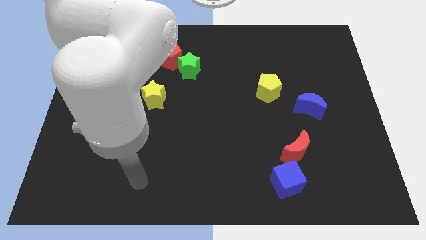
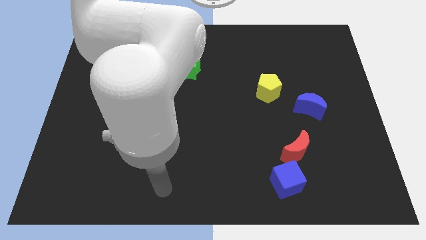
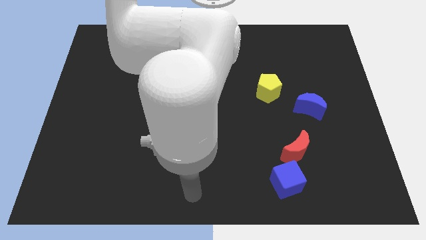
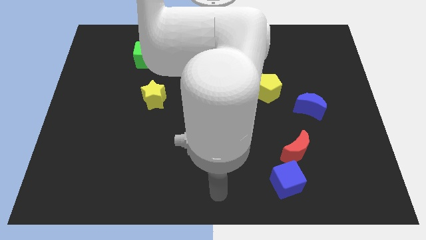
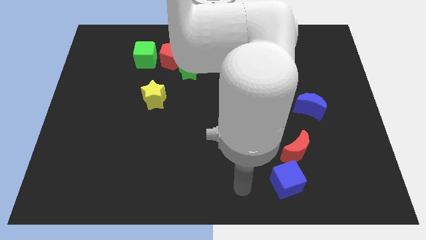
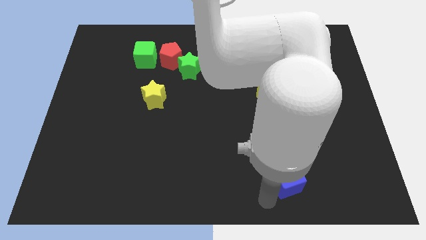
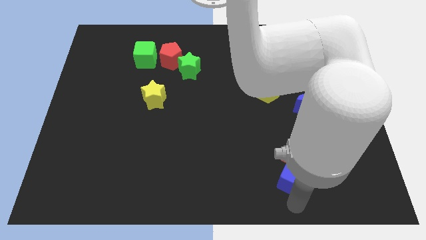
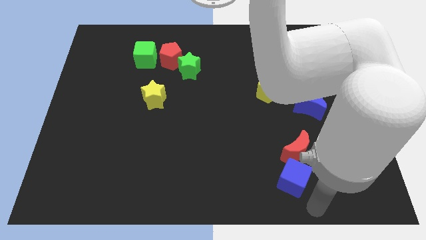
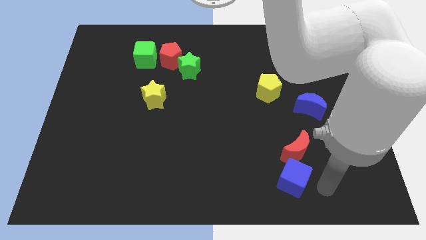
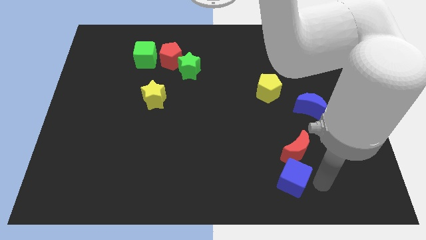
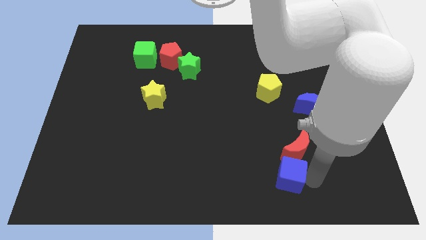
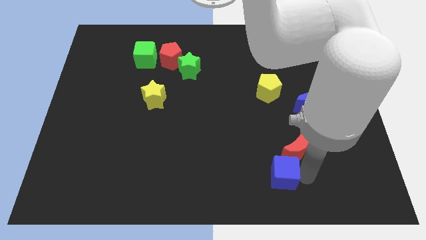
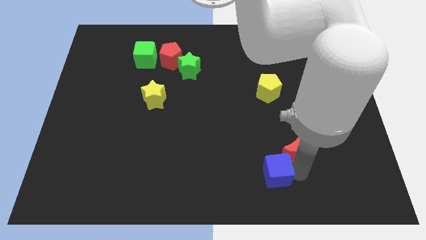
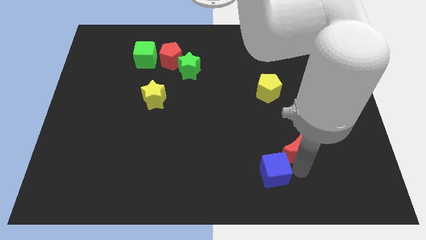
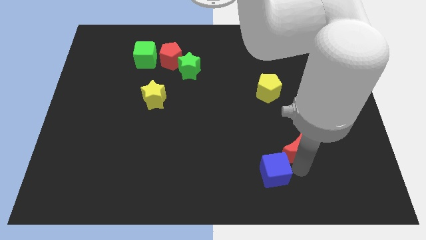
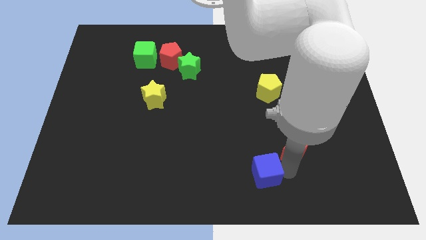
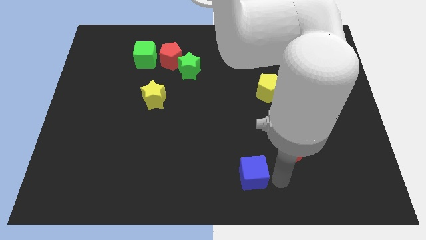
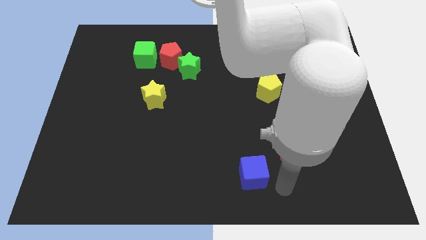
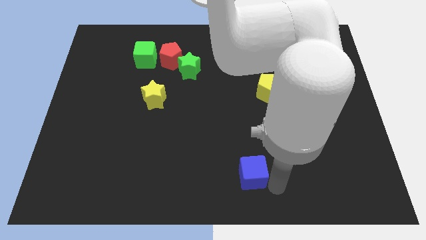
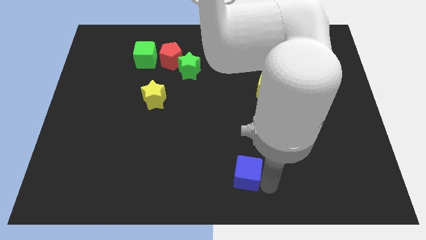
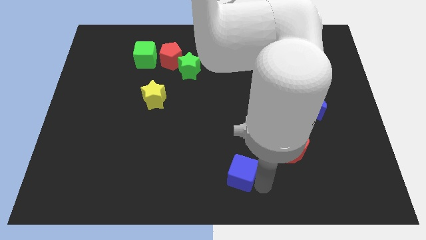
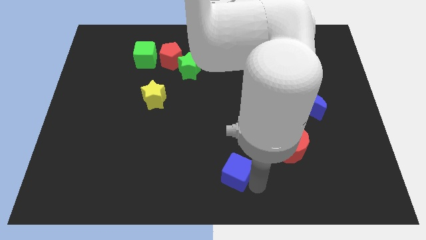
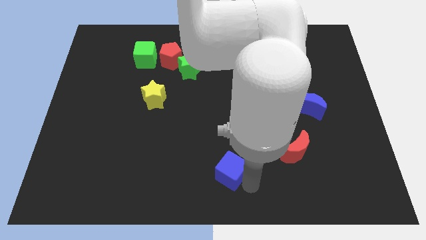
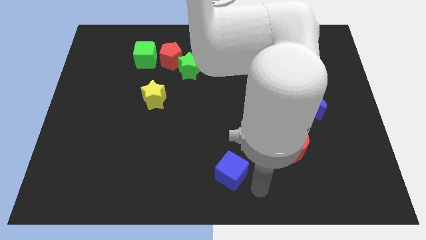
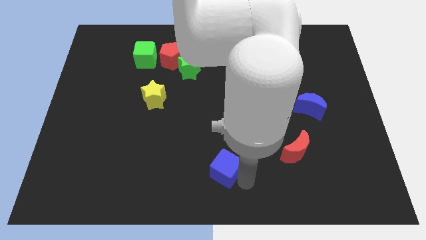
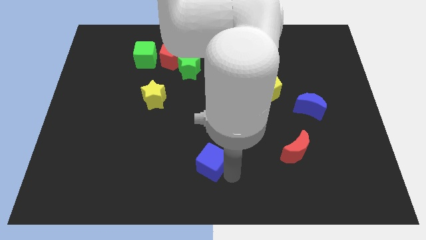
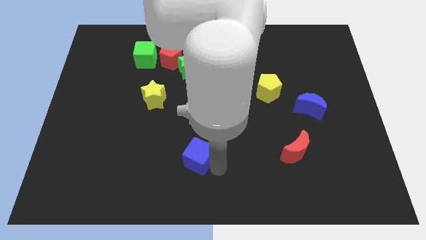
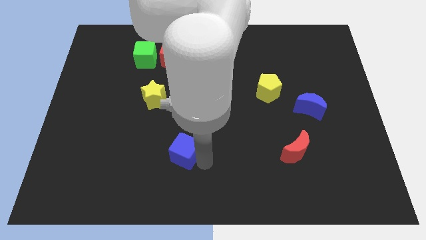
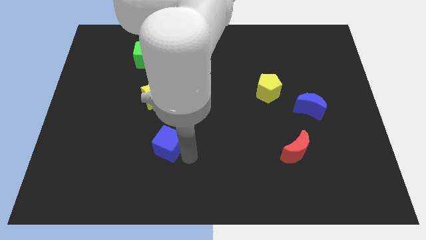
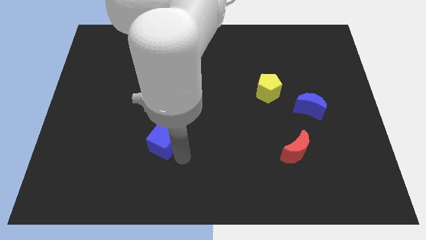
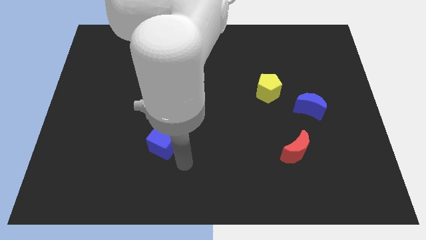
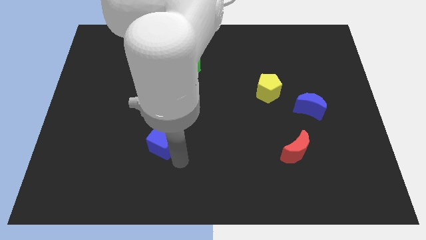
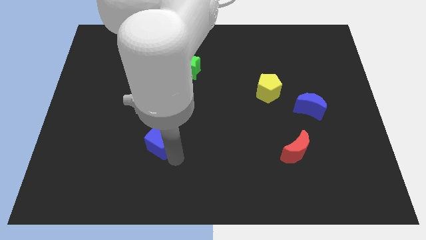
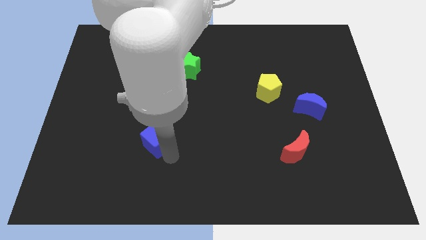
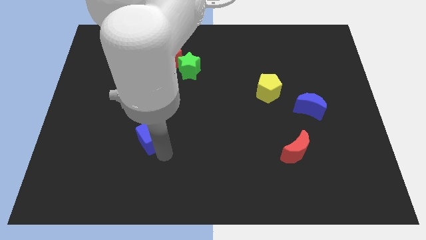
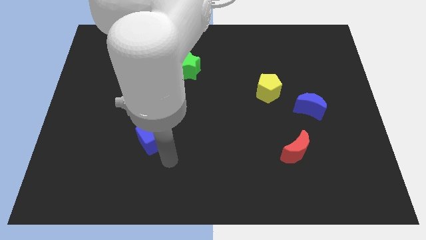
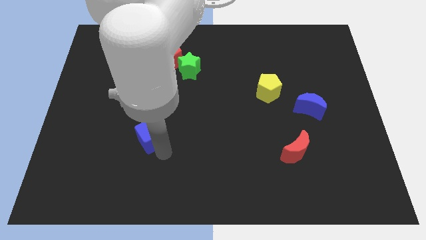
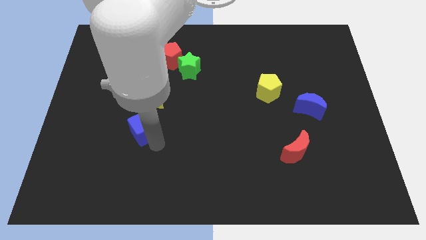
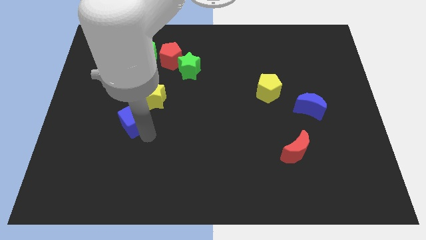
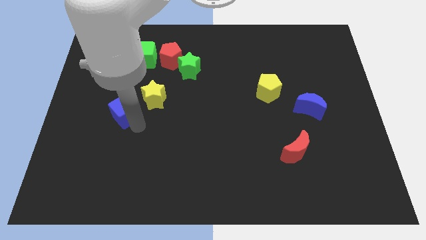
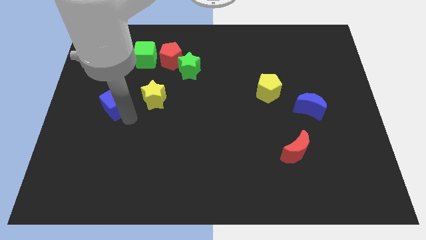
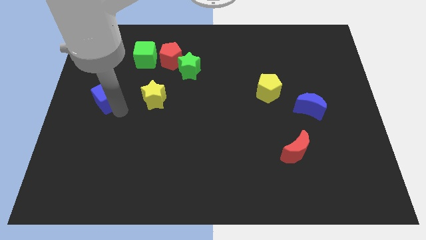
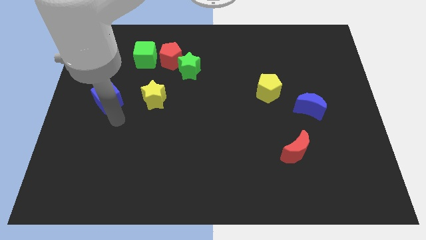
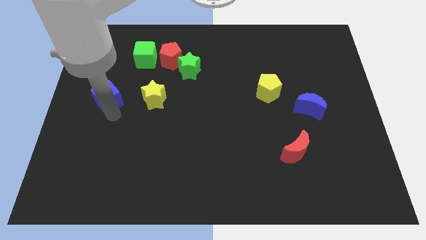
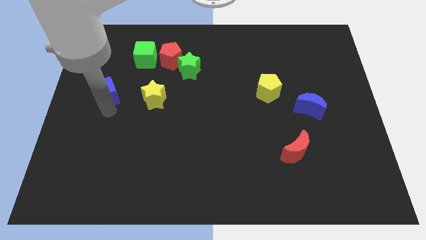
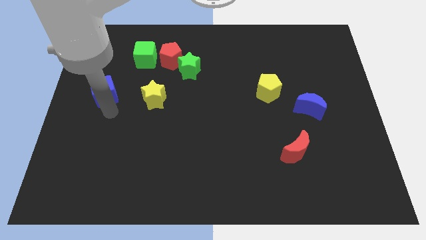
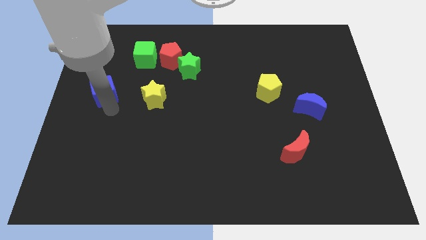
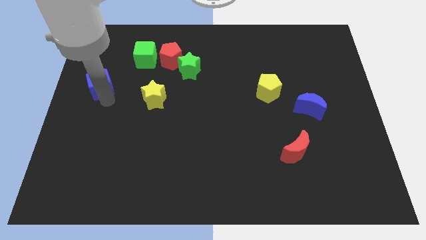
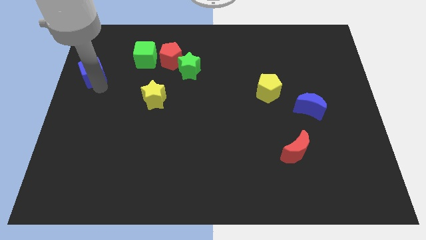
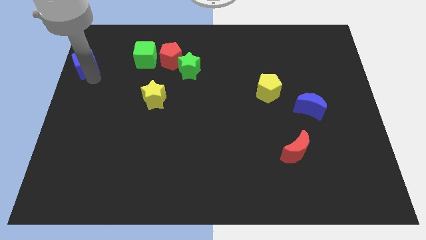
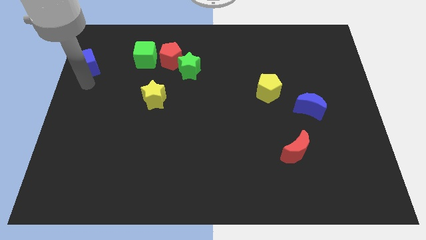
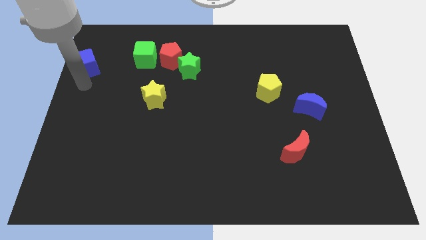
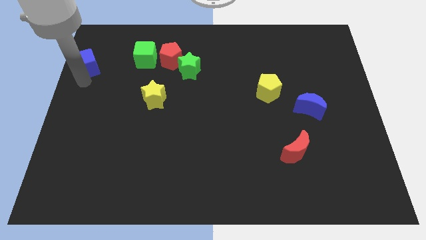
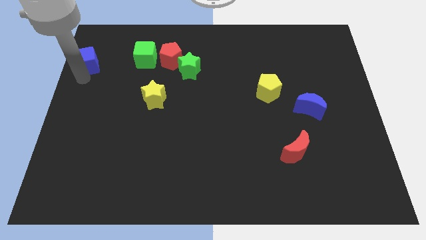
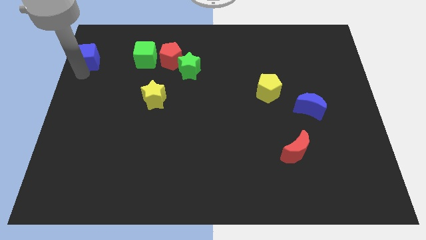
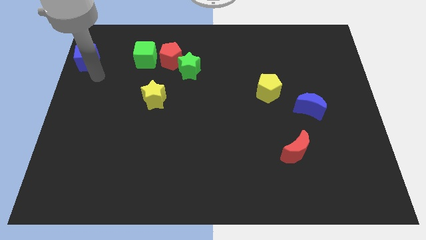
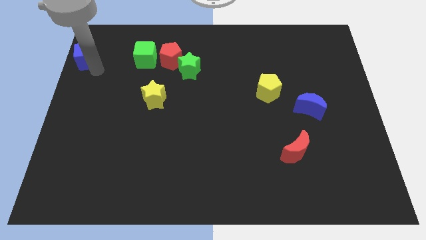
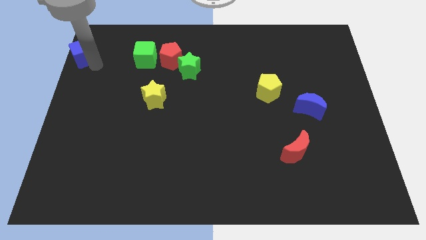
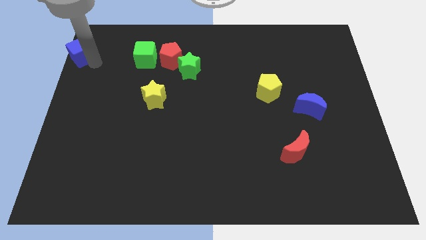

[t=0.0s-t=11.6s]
slide the blue cube to the top left

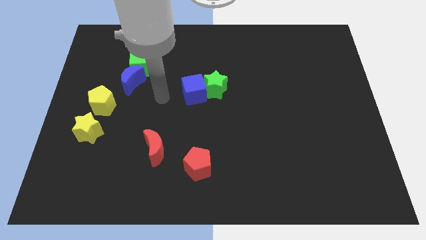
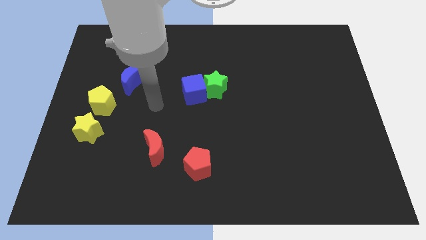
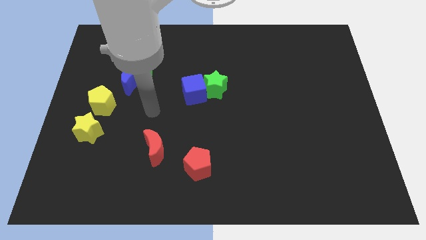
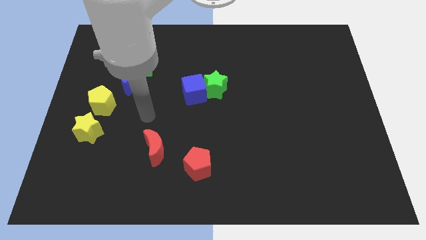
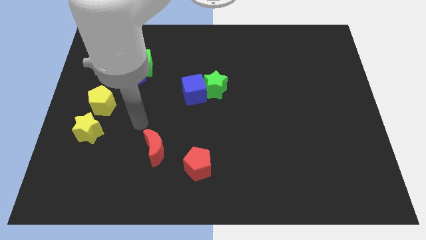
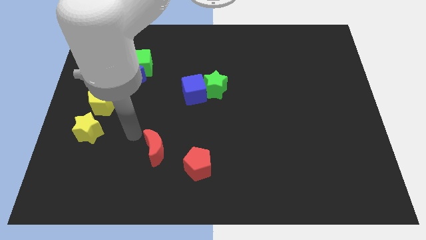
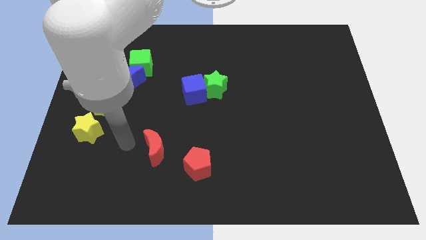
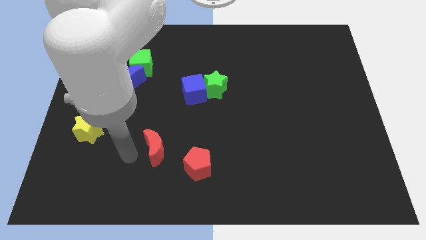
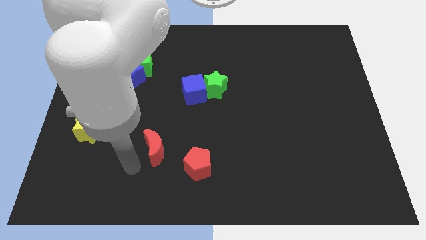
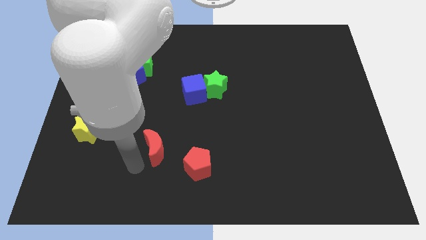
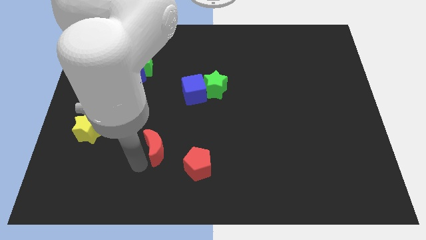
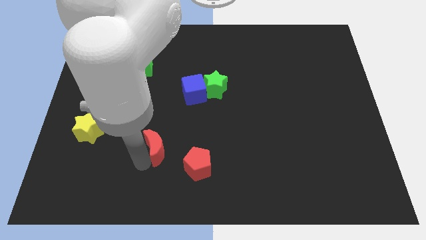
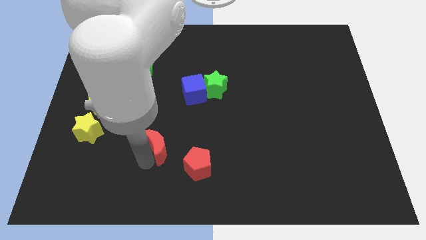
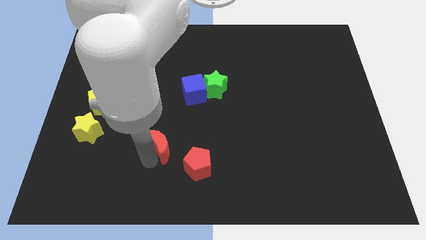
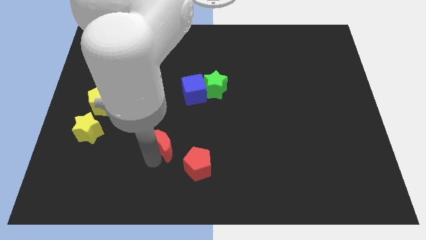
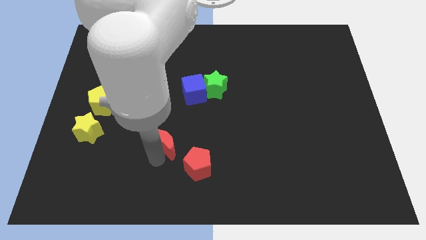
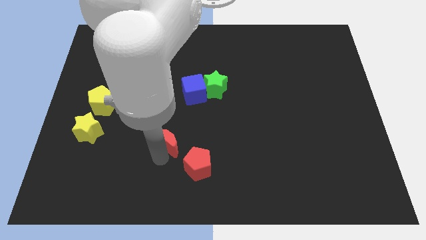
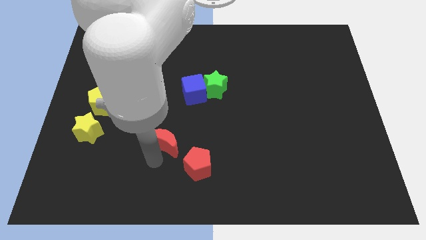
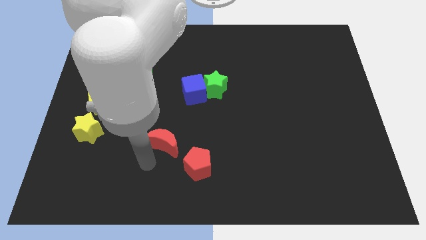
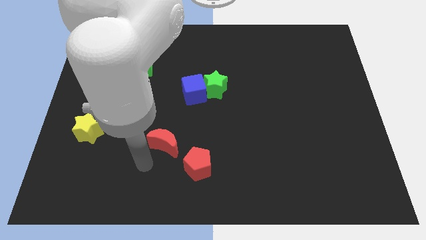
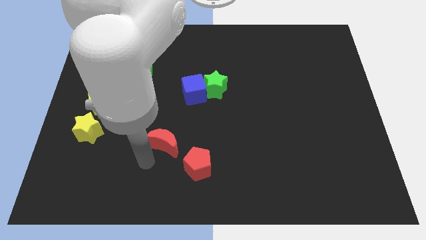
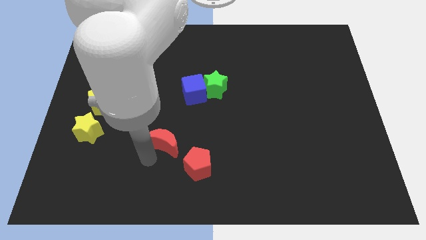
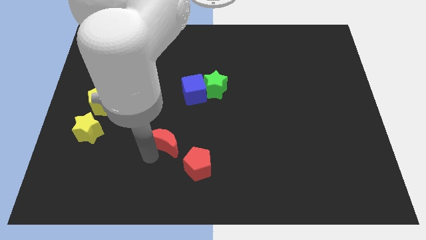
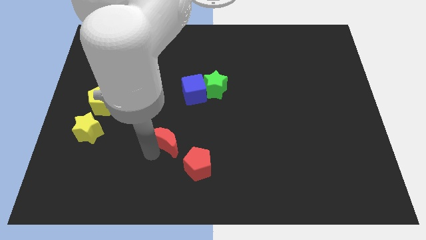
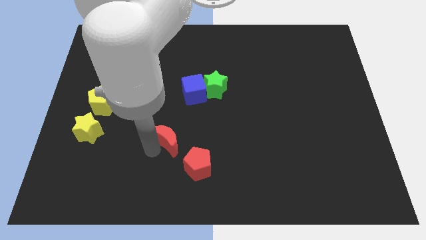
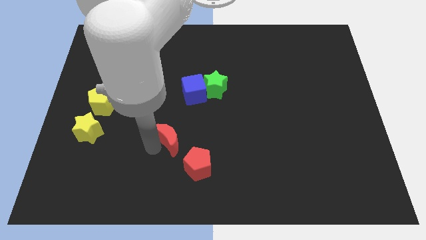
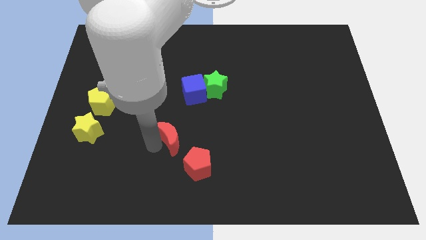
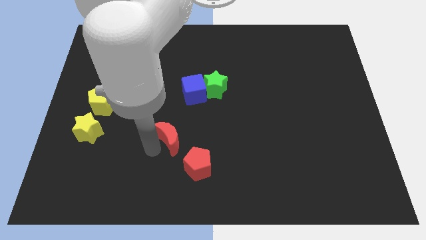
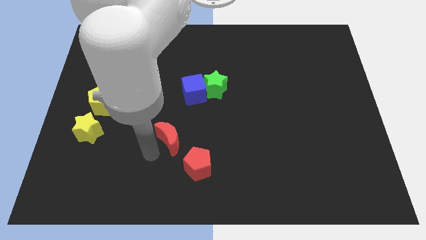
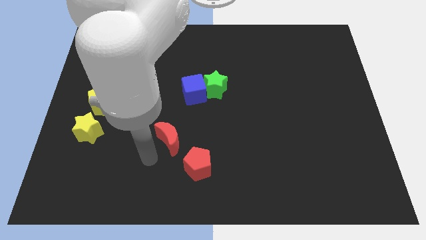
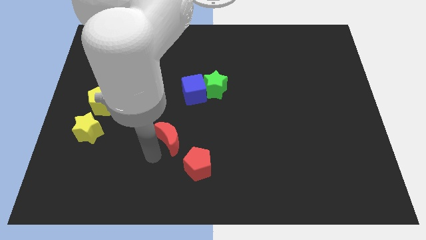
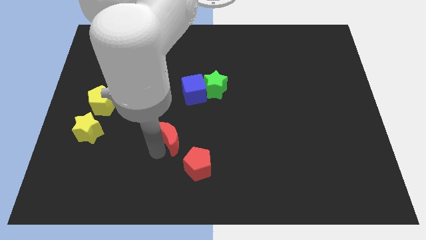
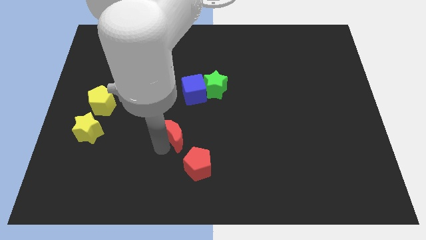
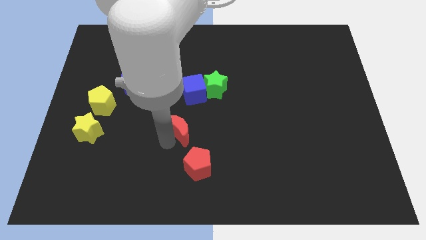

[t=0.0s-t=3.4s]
push the red moon to the center
